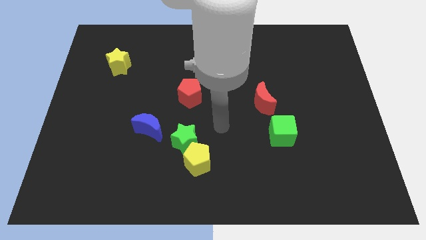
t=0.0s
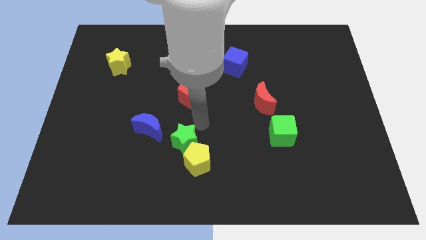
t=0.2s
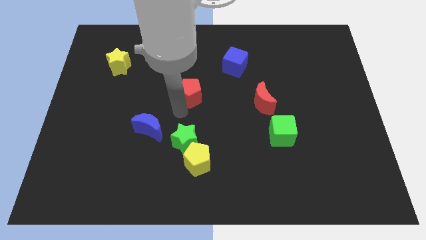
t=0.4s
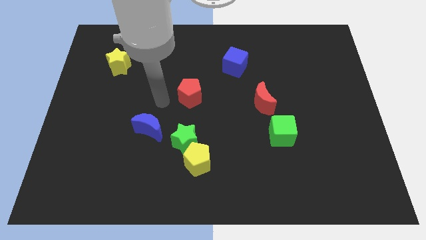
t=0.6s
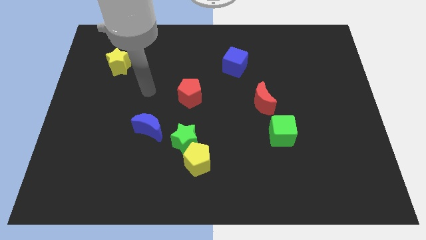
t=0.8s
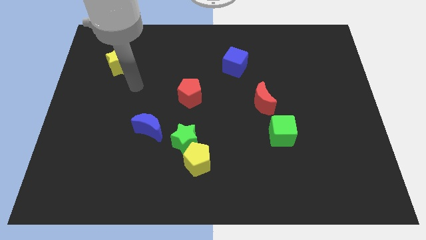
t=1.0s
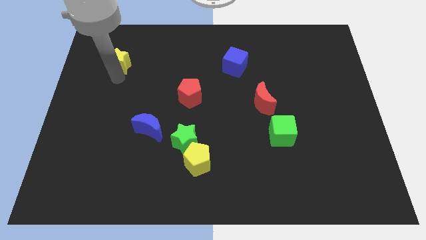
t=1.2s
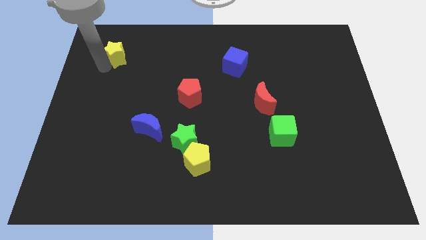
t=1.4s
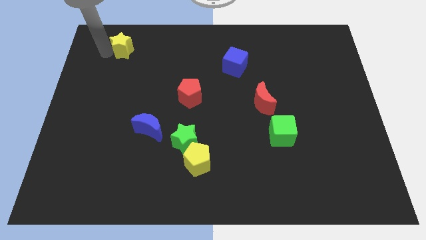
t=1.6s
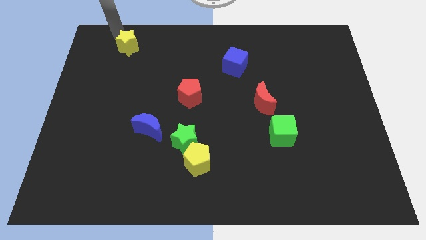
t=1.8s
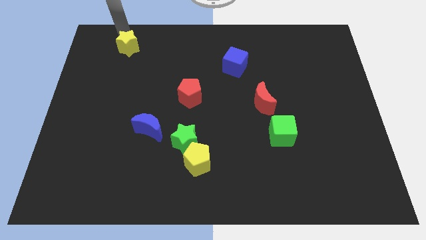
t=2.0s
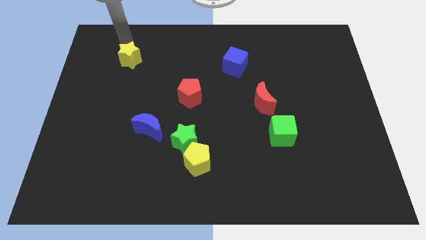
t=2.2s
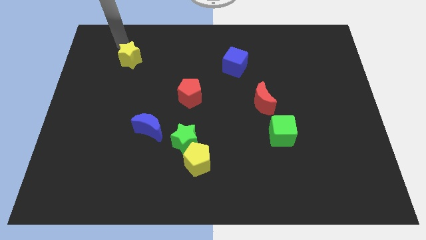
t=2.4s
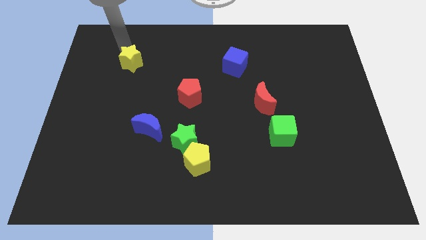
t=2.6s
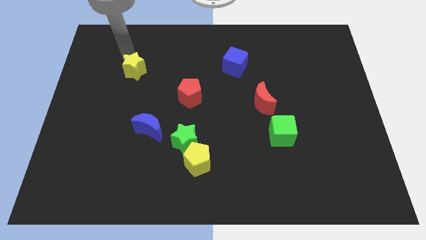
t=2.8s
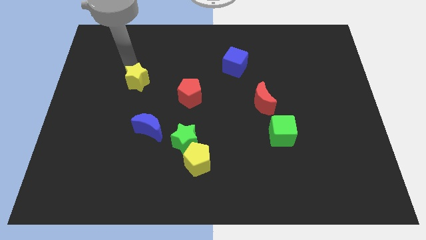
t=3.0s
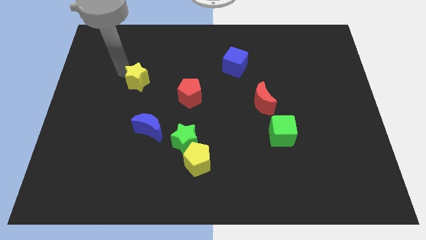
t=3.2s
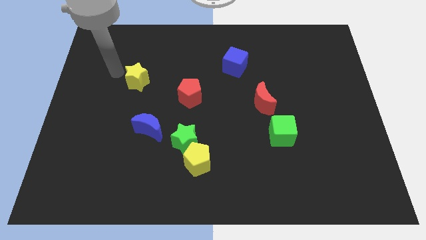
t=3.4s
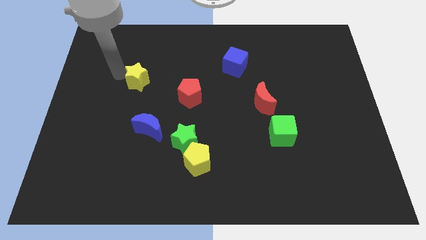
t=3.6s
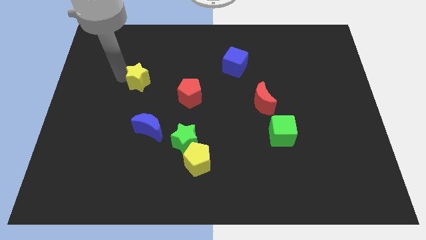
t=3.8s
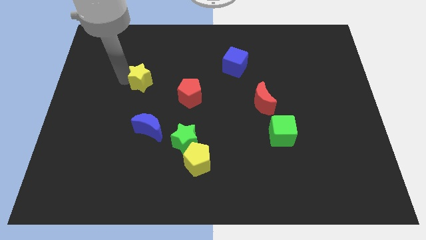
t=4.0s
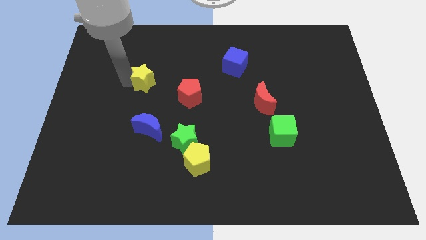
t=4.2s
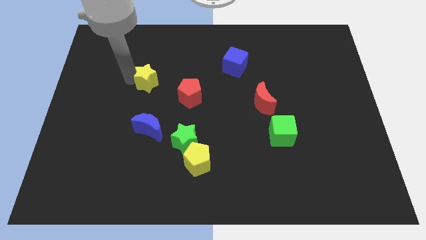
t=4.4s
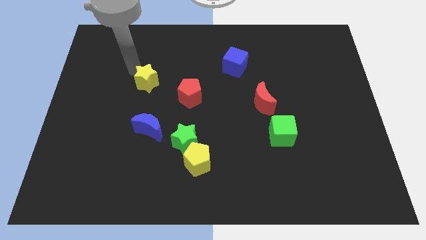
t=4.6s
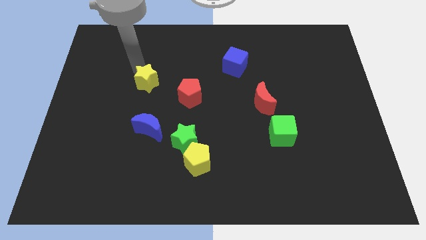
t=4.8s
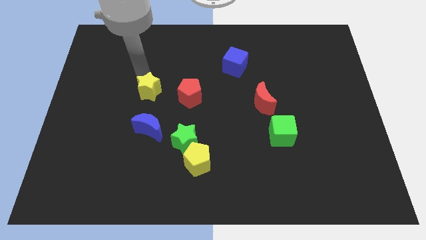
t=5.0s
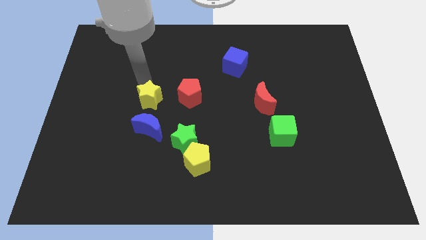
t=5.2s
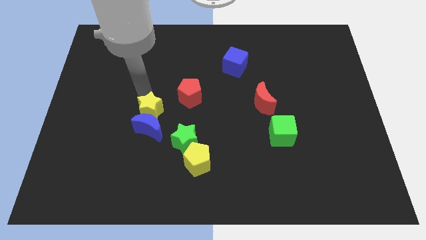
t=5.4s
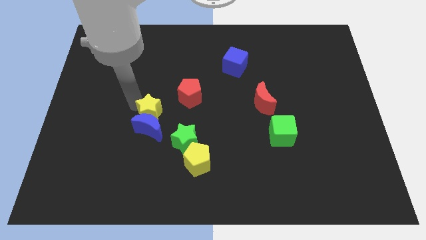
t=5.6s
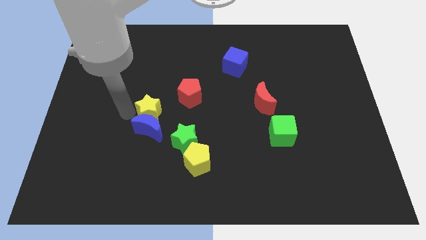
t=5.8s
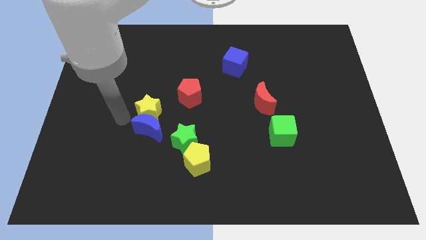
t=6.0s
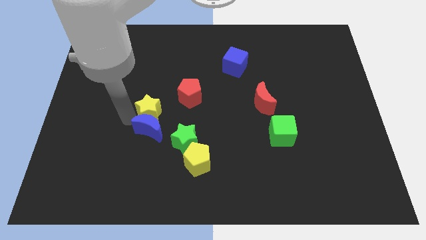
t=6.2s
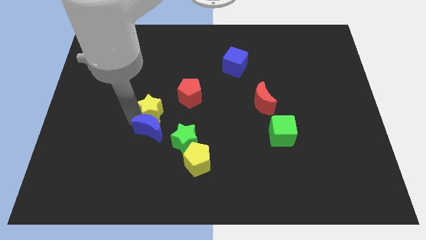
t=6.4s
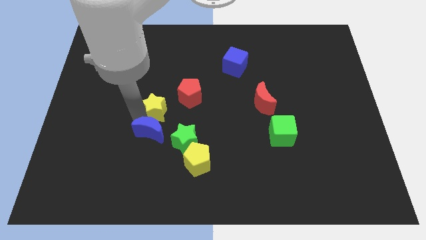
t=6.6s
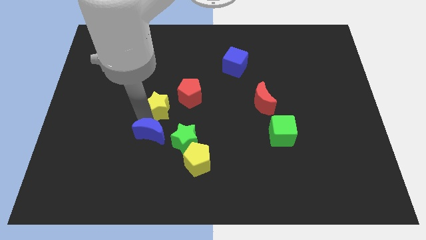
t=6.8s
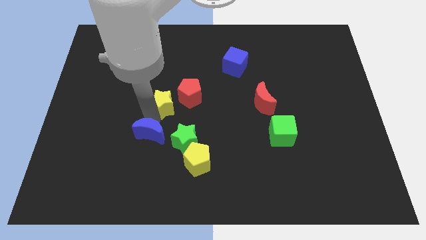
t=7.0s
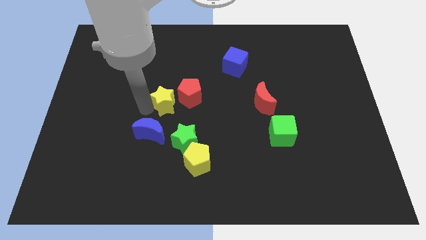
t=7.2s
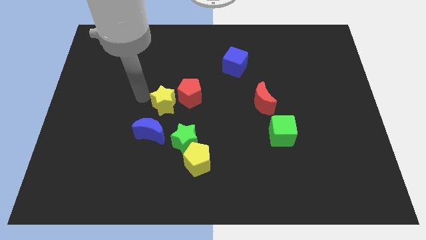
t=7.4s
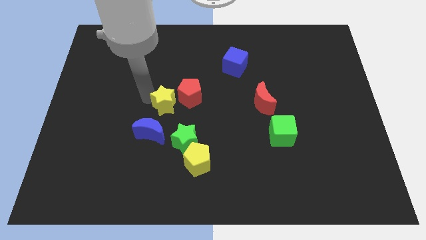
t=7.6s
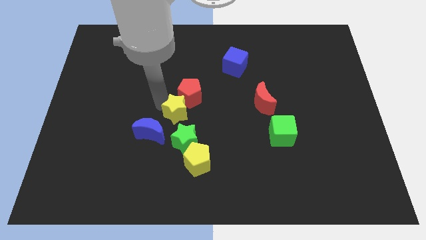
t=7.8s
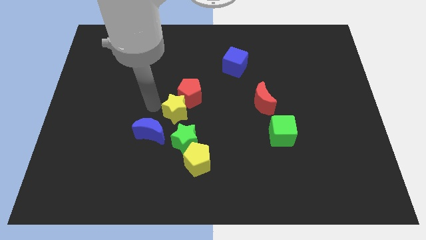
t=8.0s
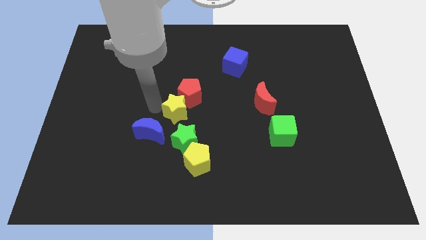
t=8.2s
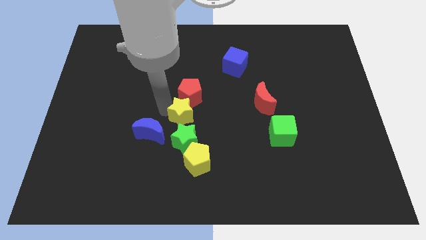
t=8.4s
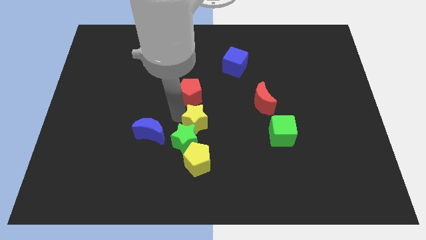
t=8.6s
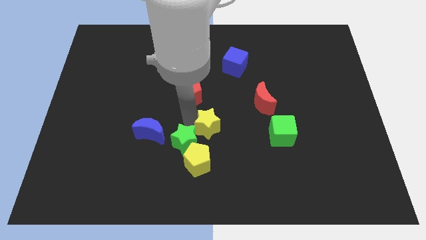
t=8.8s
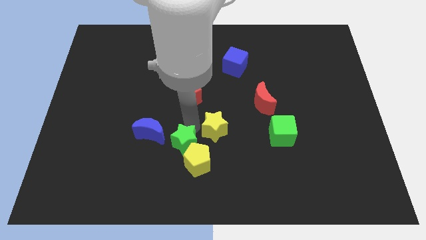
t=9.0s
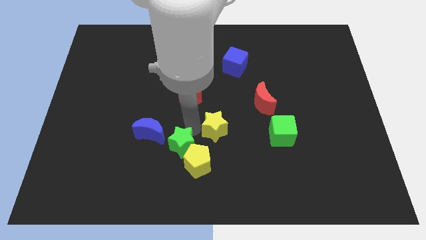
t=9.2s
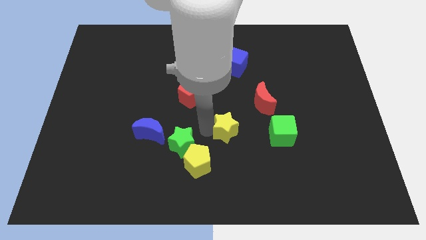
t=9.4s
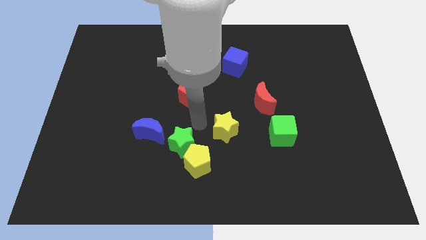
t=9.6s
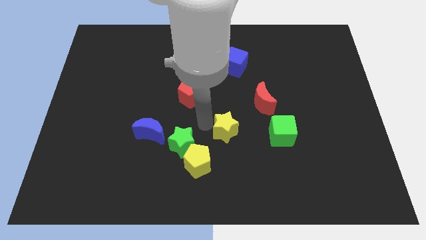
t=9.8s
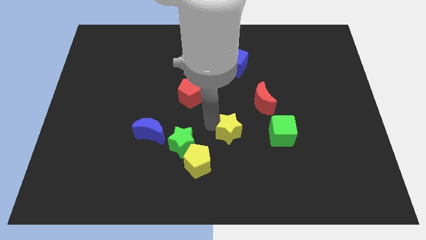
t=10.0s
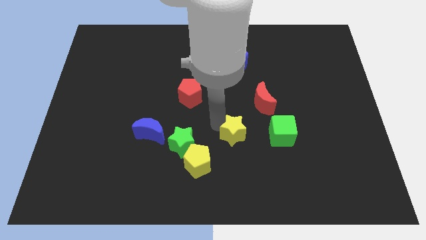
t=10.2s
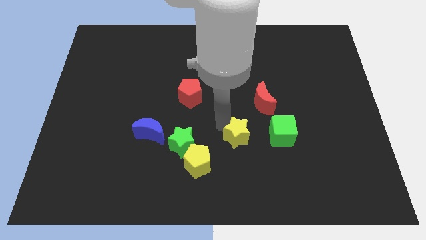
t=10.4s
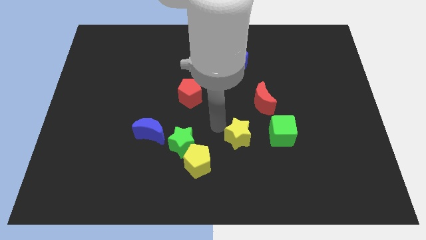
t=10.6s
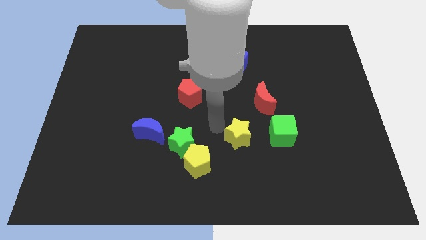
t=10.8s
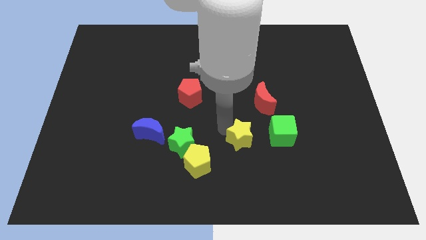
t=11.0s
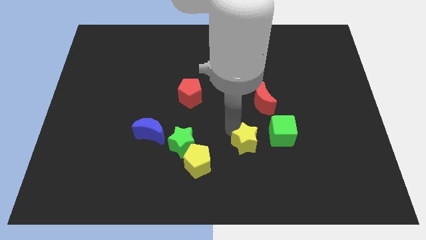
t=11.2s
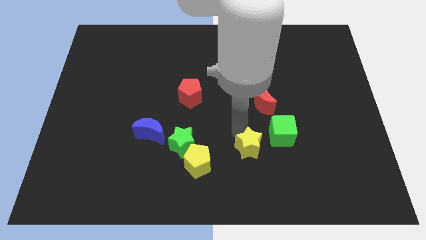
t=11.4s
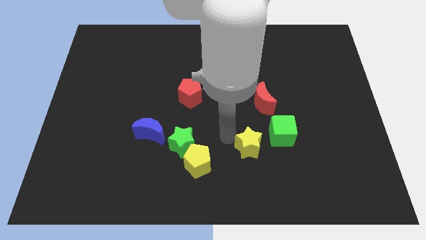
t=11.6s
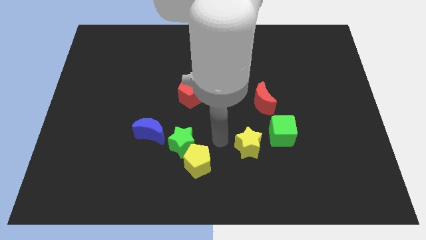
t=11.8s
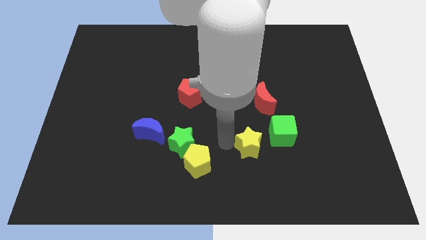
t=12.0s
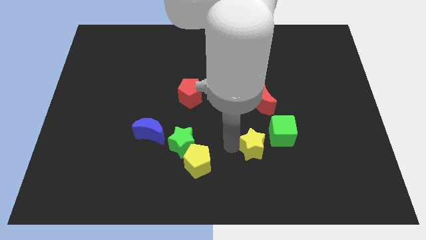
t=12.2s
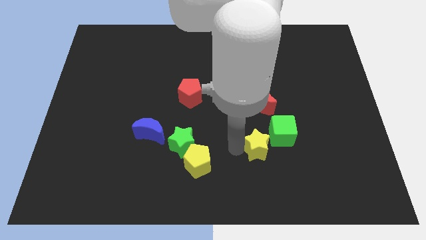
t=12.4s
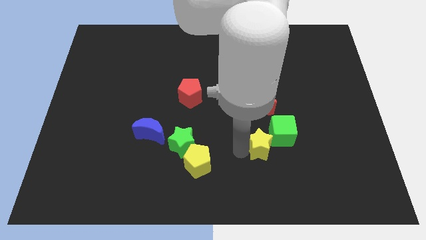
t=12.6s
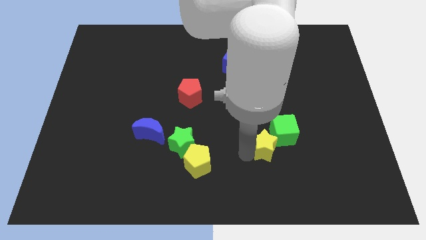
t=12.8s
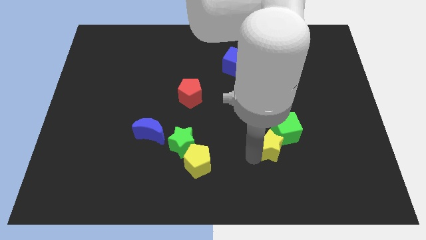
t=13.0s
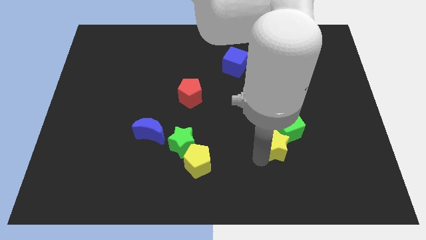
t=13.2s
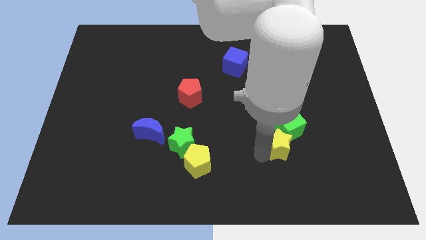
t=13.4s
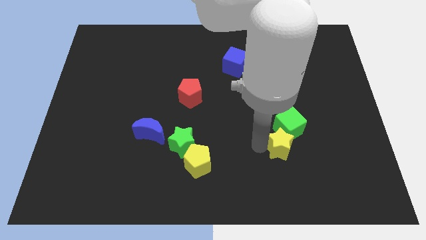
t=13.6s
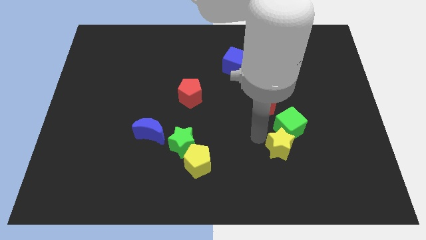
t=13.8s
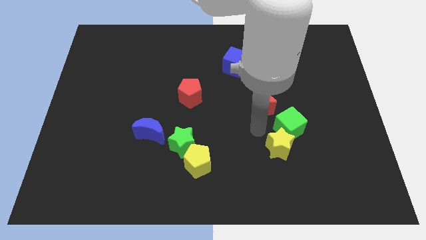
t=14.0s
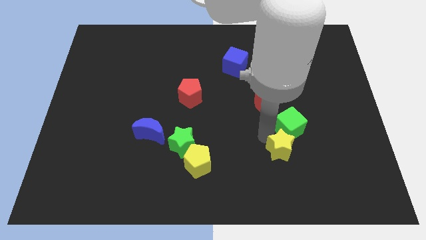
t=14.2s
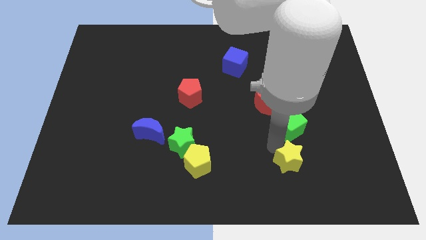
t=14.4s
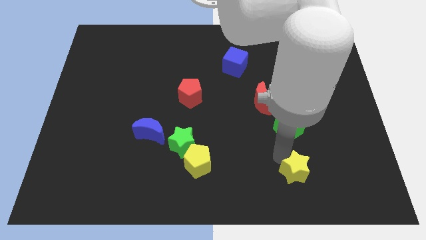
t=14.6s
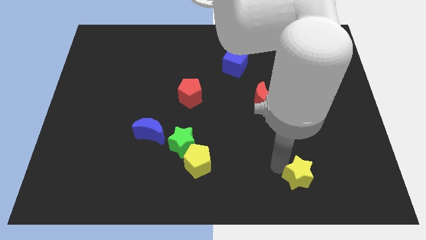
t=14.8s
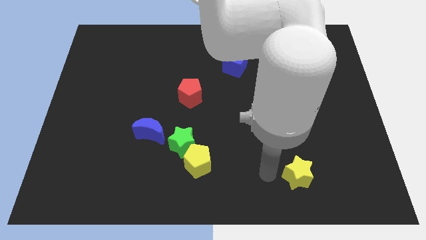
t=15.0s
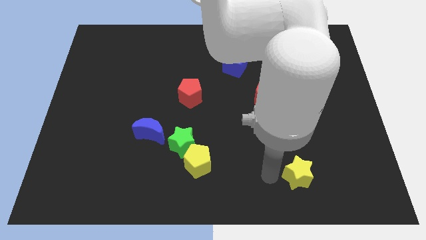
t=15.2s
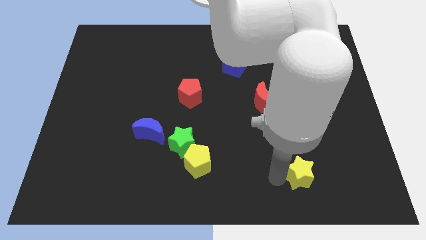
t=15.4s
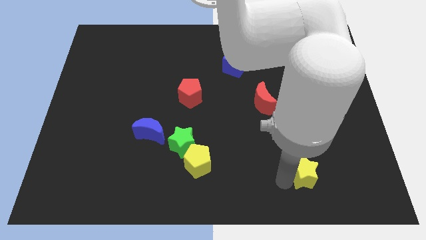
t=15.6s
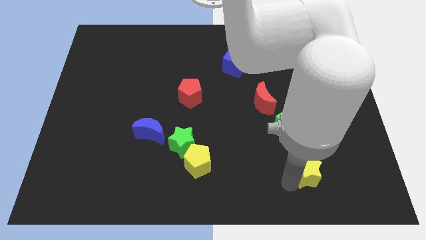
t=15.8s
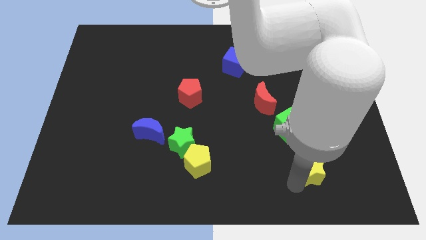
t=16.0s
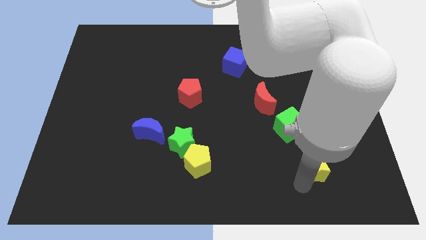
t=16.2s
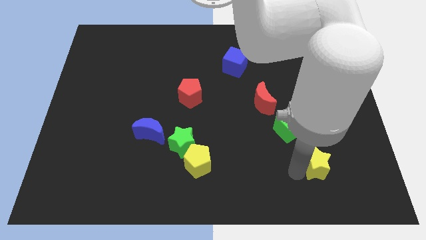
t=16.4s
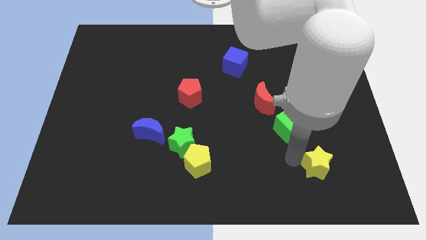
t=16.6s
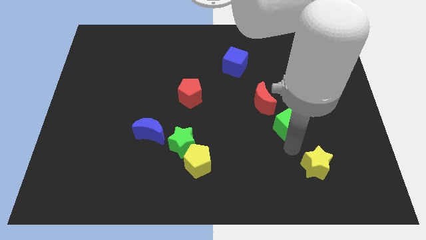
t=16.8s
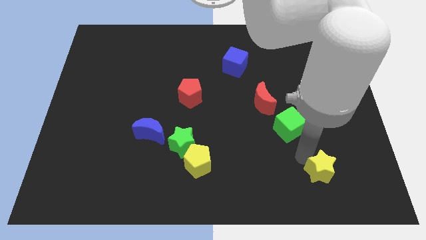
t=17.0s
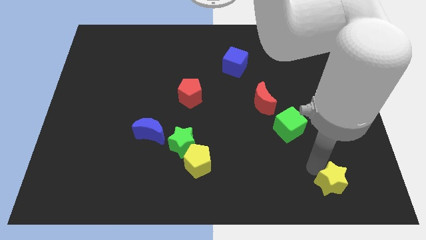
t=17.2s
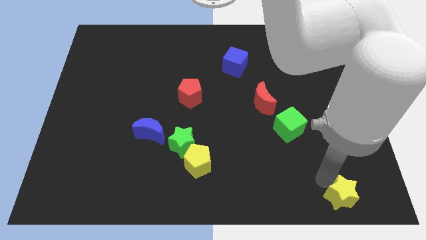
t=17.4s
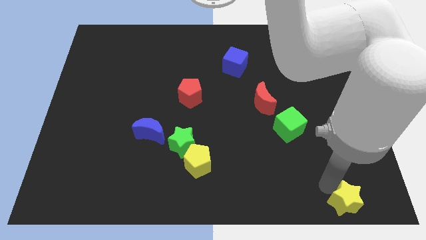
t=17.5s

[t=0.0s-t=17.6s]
move the yellow star to the bottom right corner
